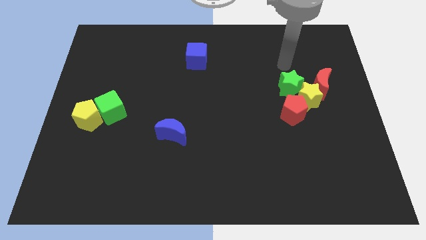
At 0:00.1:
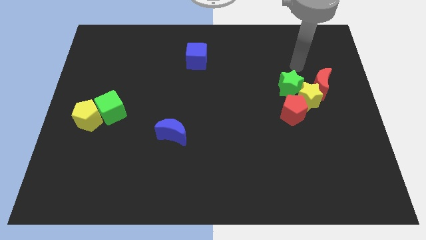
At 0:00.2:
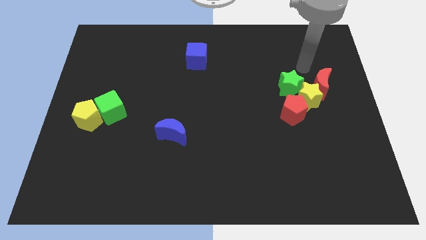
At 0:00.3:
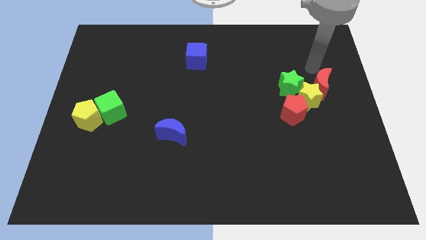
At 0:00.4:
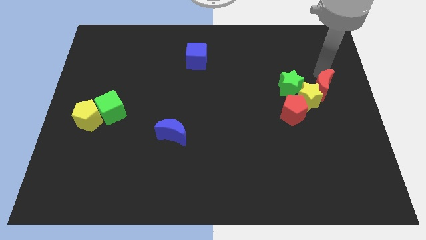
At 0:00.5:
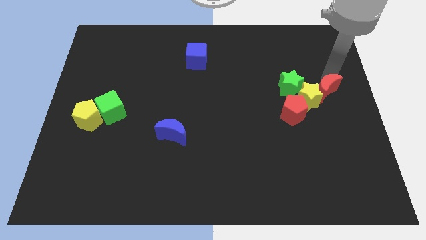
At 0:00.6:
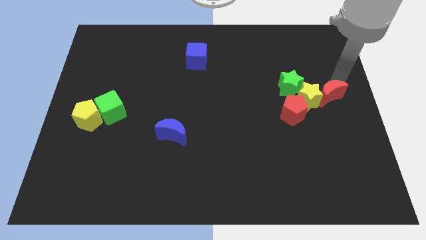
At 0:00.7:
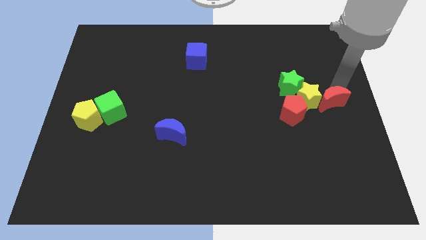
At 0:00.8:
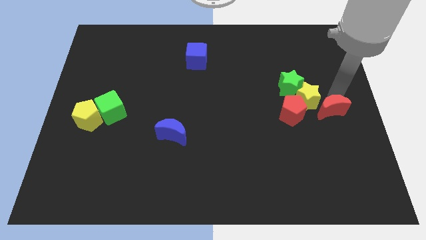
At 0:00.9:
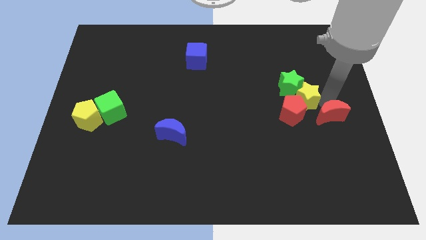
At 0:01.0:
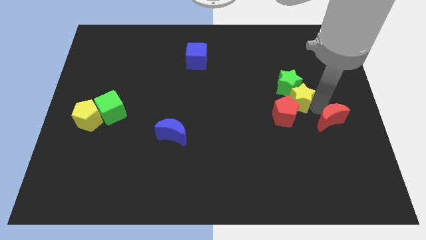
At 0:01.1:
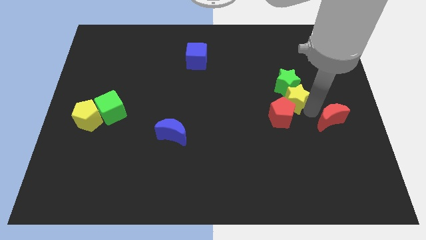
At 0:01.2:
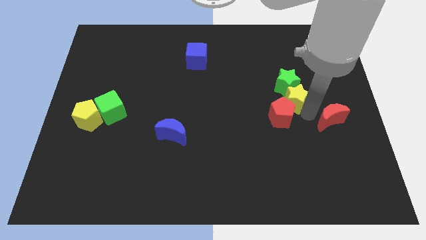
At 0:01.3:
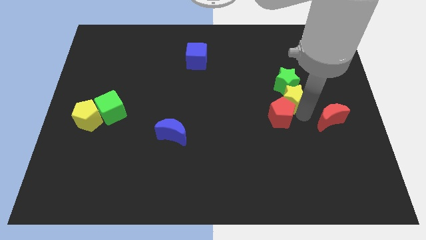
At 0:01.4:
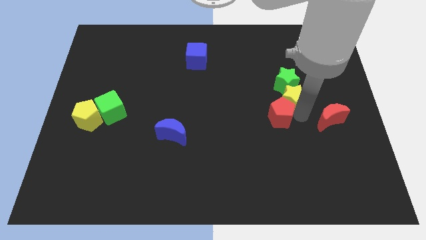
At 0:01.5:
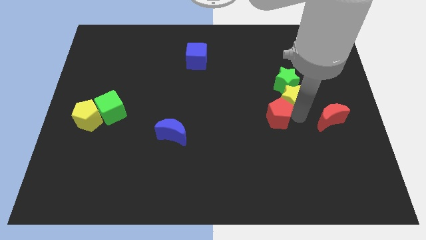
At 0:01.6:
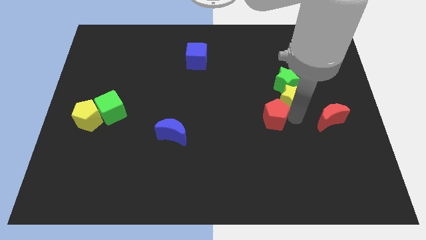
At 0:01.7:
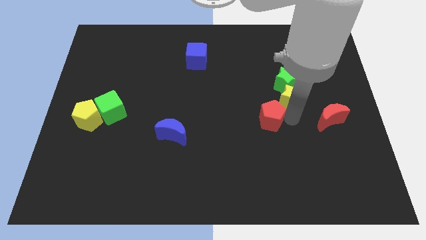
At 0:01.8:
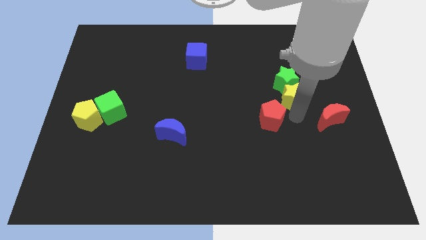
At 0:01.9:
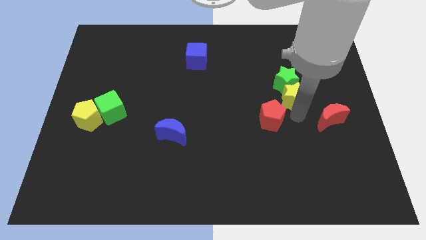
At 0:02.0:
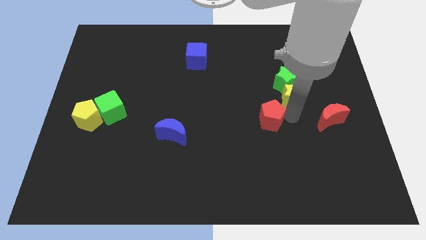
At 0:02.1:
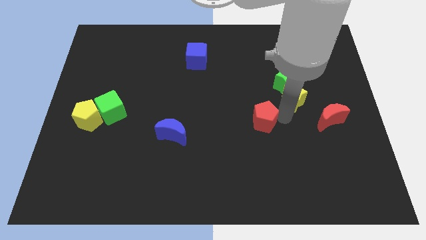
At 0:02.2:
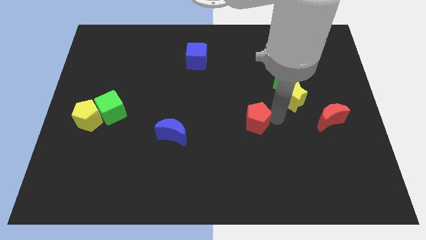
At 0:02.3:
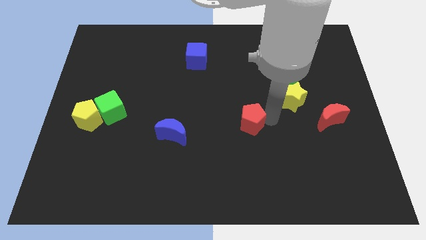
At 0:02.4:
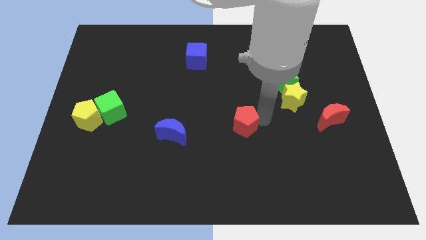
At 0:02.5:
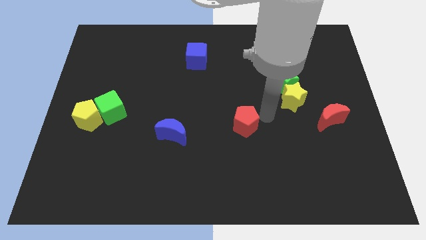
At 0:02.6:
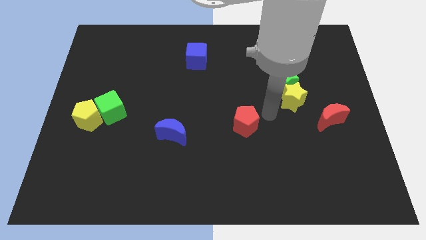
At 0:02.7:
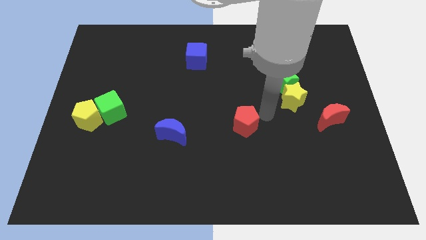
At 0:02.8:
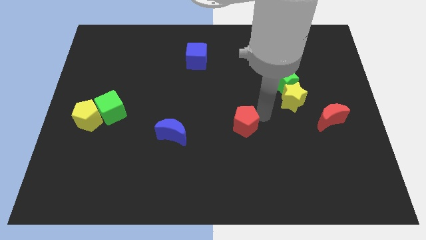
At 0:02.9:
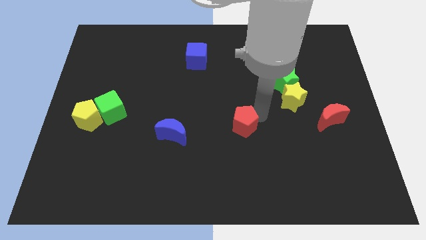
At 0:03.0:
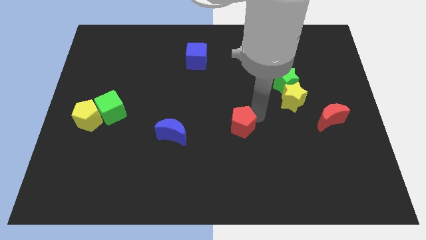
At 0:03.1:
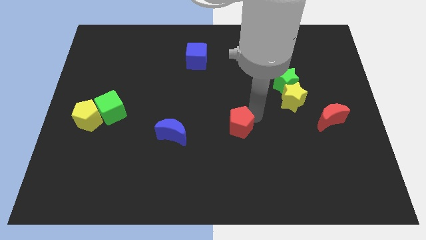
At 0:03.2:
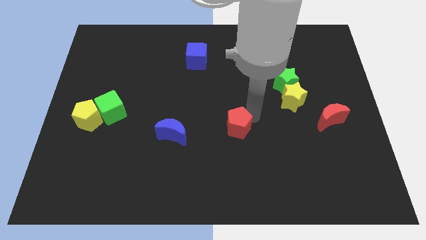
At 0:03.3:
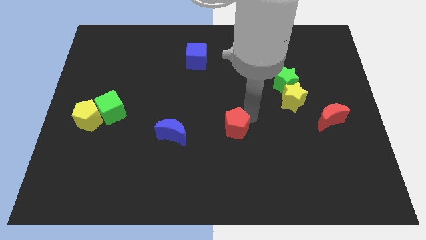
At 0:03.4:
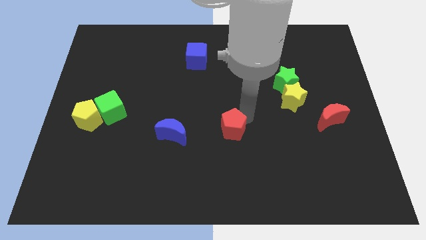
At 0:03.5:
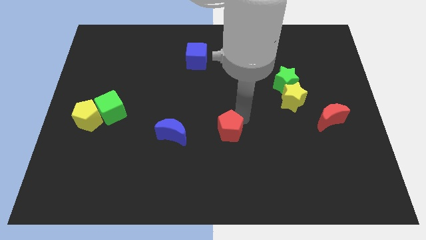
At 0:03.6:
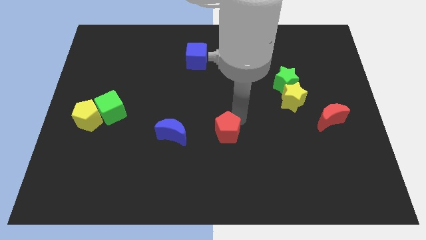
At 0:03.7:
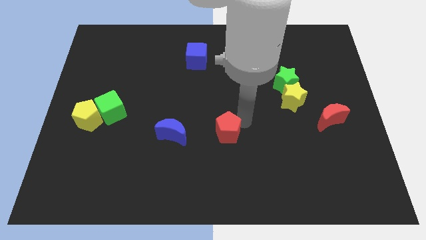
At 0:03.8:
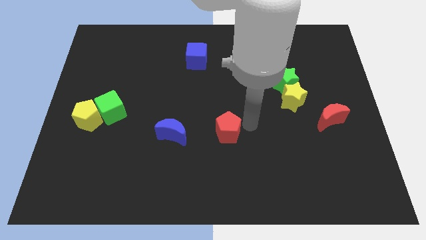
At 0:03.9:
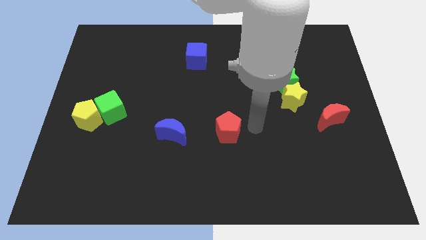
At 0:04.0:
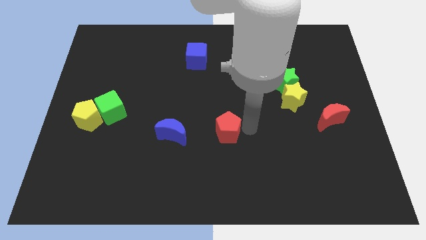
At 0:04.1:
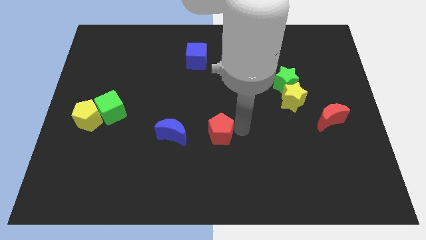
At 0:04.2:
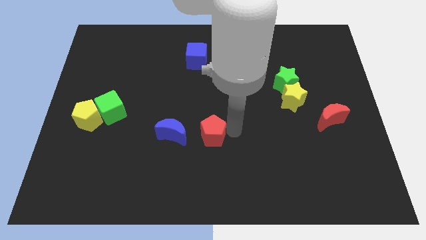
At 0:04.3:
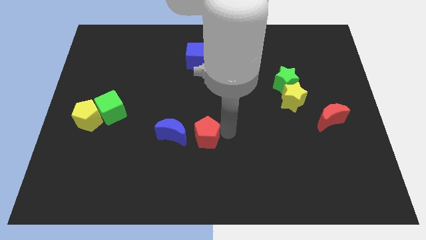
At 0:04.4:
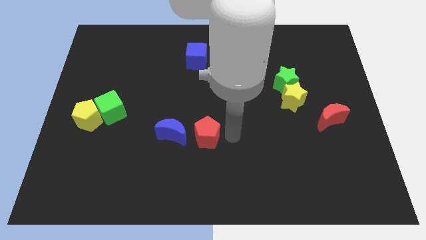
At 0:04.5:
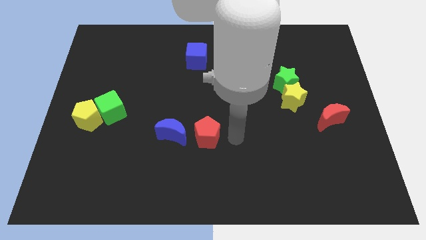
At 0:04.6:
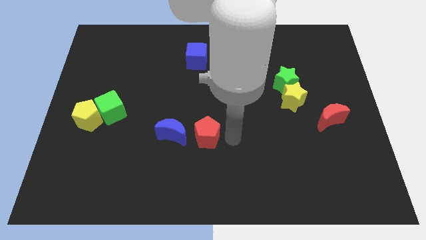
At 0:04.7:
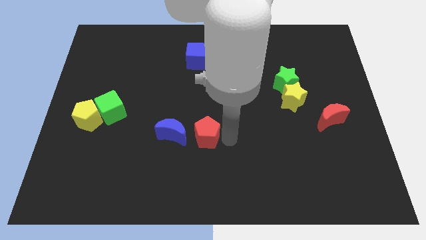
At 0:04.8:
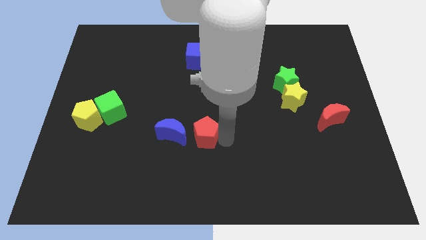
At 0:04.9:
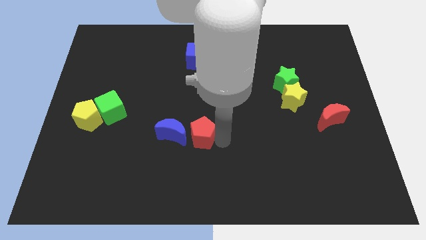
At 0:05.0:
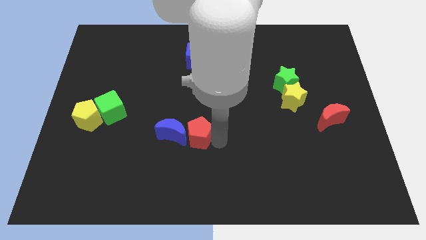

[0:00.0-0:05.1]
put the red pentagon to the blue moon

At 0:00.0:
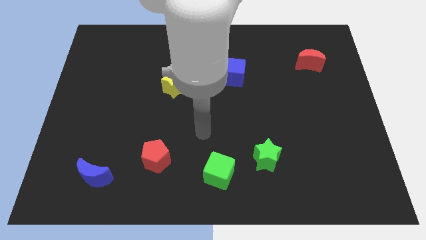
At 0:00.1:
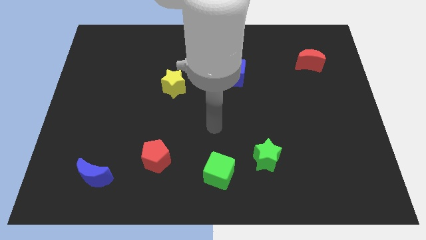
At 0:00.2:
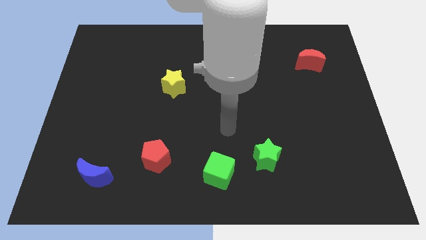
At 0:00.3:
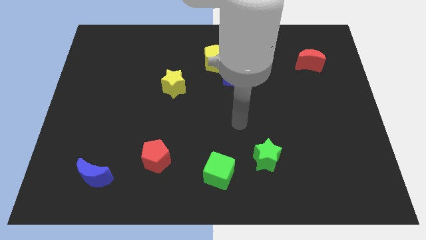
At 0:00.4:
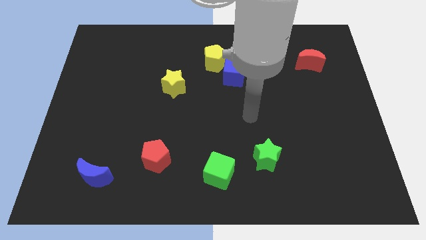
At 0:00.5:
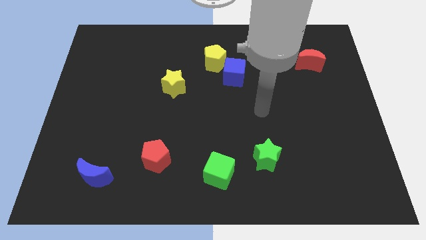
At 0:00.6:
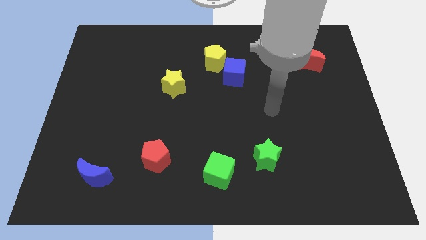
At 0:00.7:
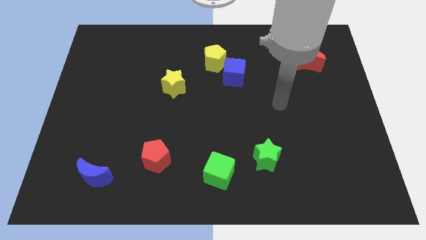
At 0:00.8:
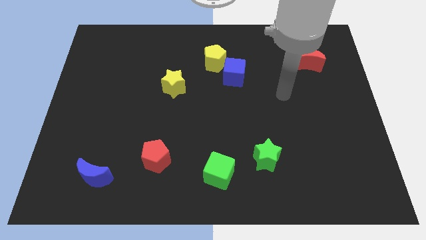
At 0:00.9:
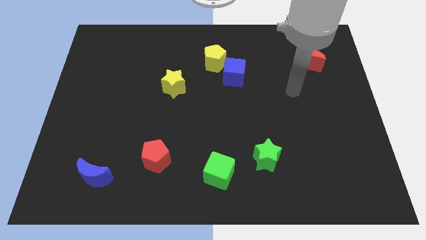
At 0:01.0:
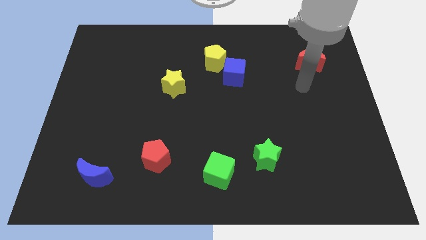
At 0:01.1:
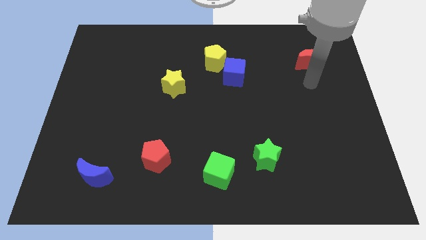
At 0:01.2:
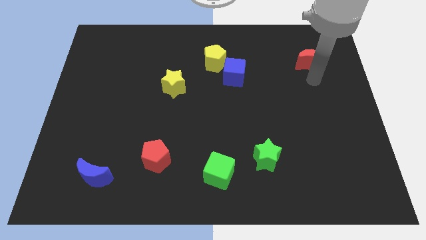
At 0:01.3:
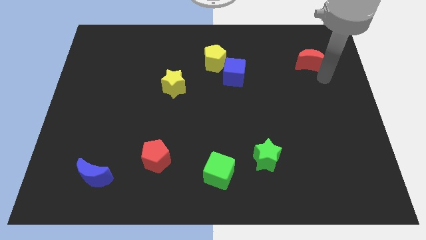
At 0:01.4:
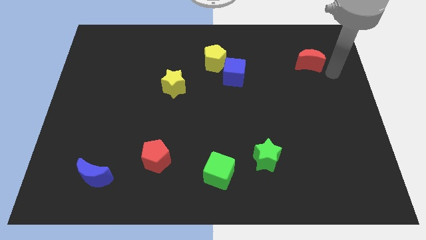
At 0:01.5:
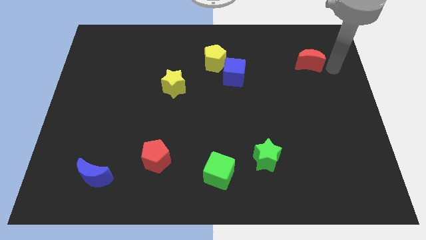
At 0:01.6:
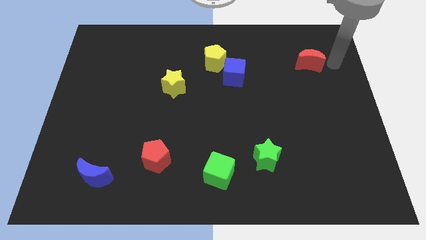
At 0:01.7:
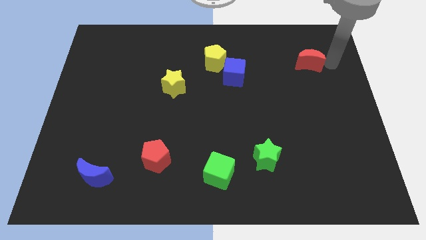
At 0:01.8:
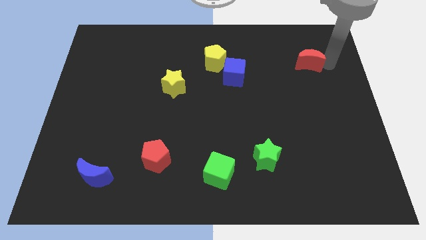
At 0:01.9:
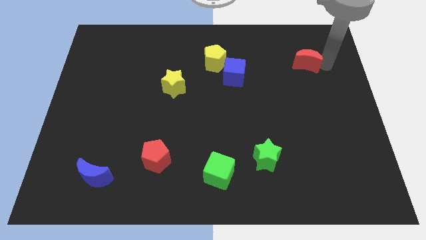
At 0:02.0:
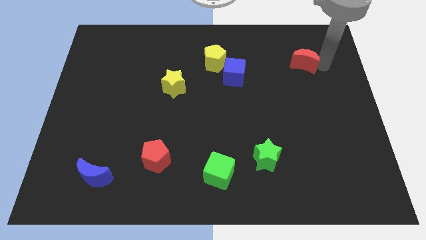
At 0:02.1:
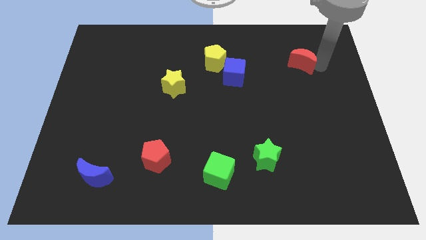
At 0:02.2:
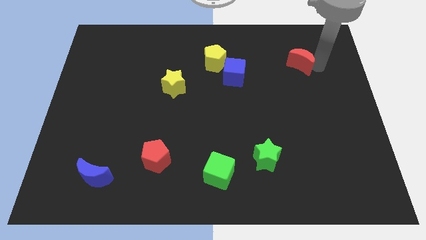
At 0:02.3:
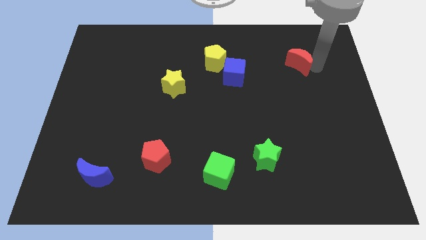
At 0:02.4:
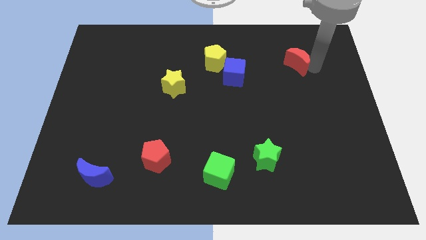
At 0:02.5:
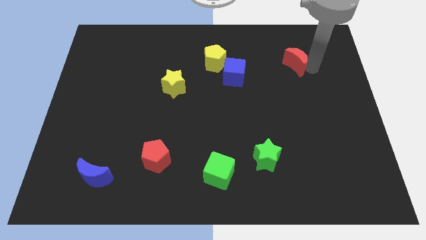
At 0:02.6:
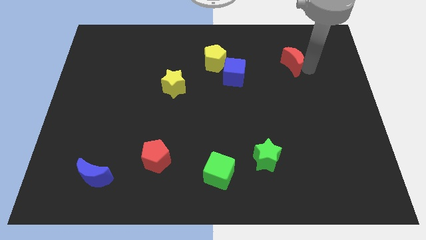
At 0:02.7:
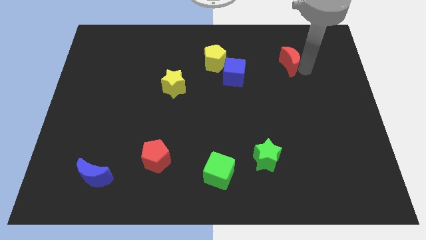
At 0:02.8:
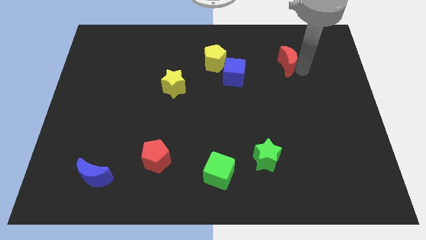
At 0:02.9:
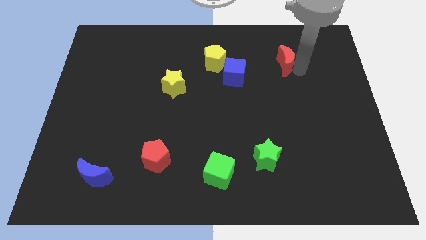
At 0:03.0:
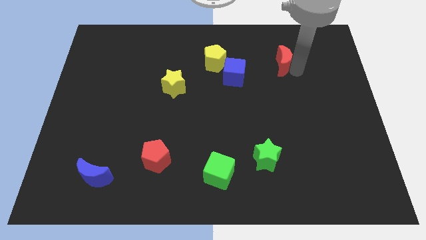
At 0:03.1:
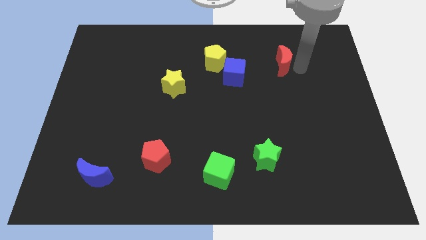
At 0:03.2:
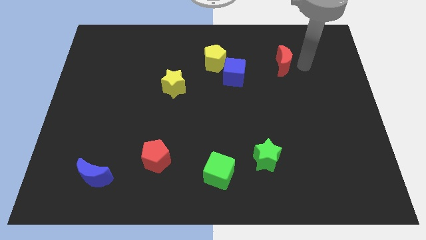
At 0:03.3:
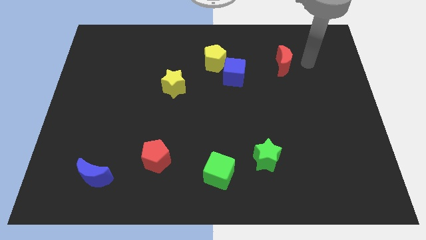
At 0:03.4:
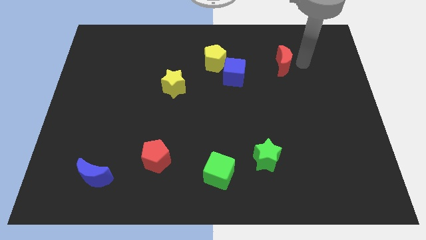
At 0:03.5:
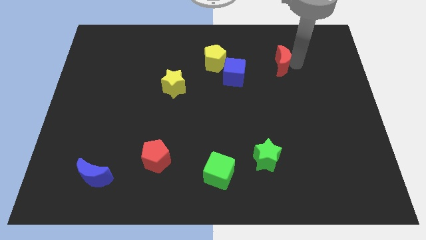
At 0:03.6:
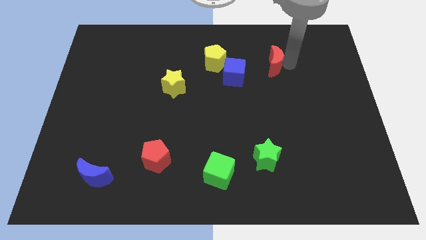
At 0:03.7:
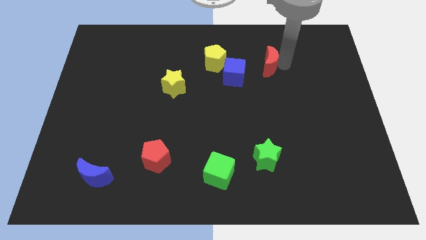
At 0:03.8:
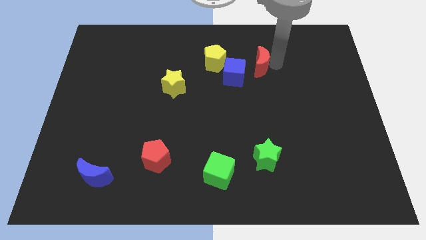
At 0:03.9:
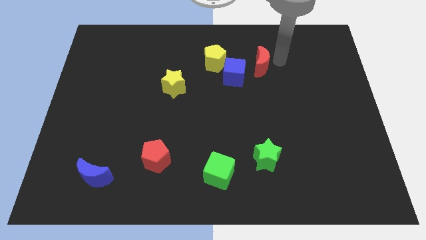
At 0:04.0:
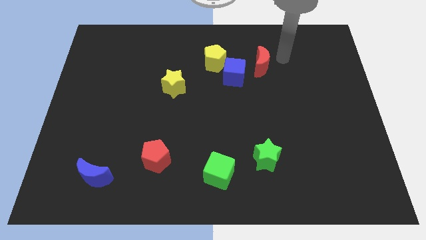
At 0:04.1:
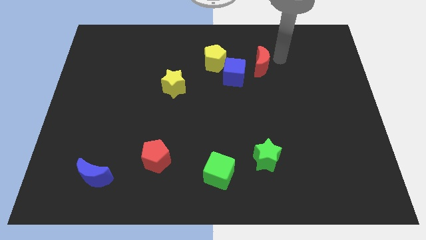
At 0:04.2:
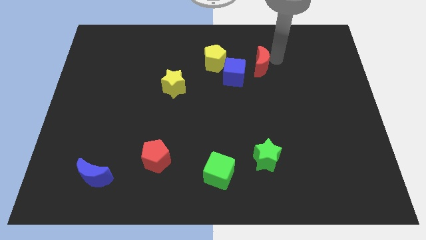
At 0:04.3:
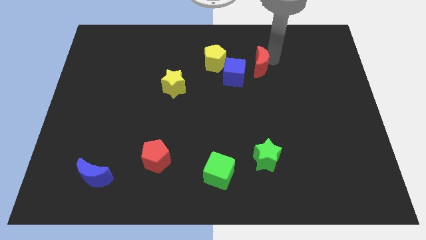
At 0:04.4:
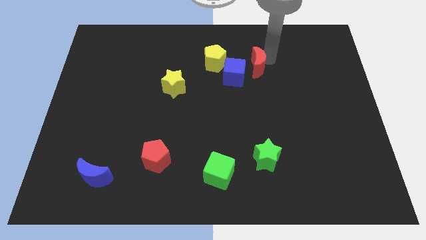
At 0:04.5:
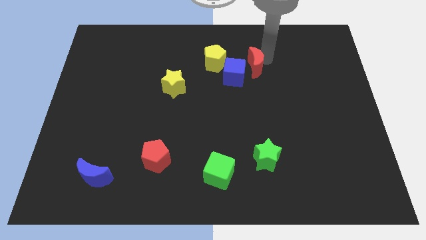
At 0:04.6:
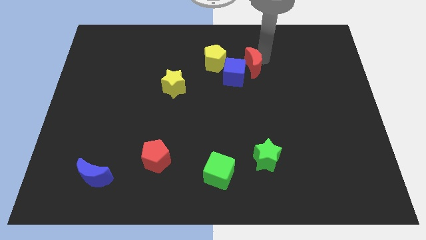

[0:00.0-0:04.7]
move the red moon close to the blue cube
